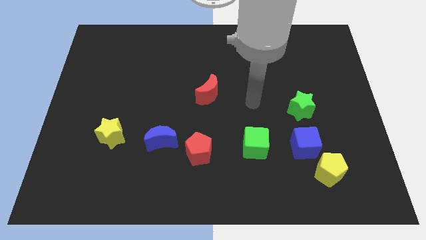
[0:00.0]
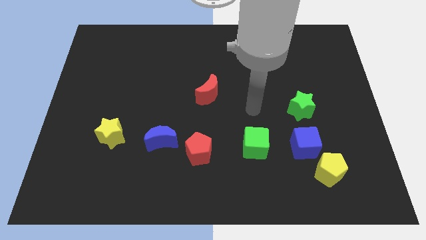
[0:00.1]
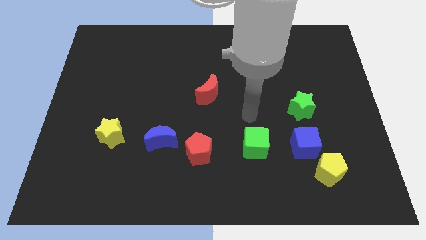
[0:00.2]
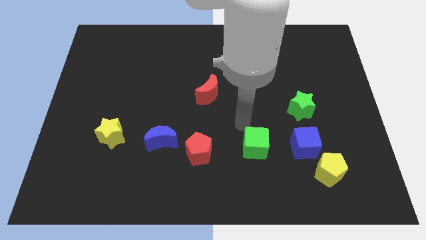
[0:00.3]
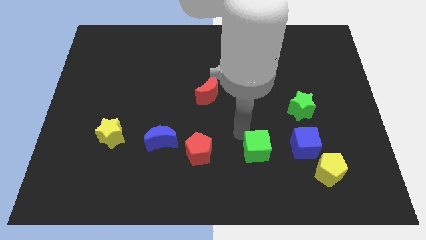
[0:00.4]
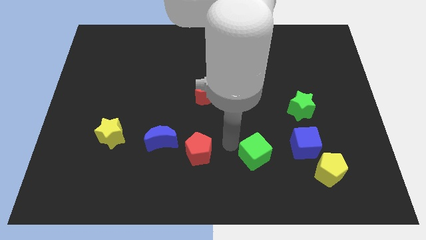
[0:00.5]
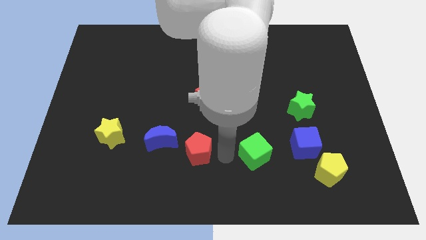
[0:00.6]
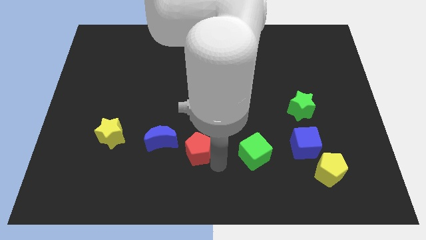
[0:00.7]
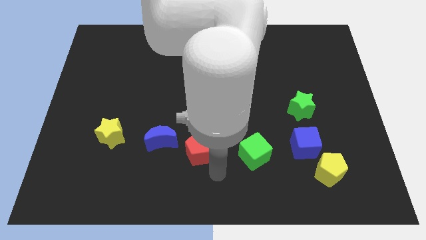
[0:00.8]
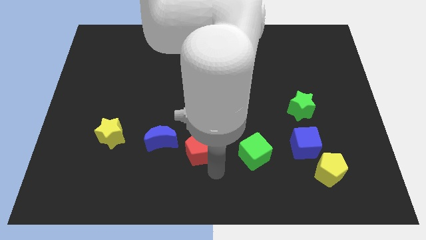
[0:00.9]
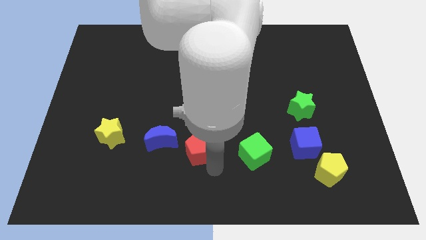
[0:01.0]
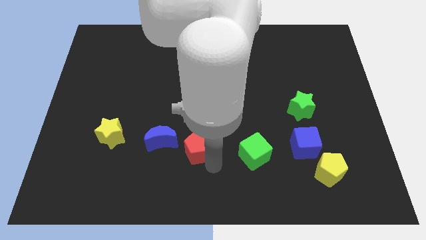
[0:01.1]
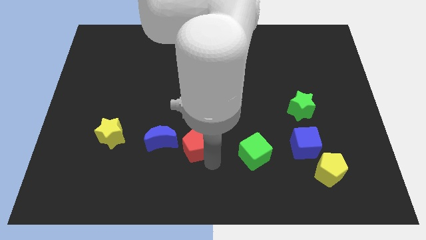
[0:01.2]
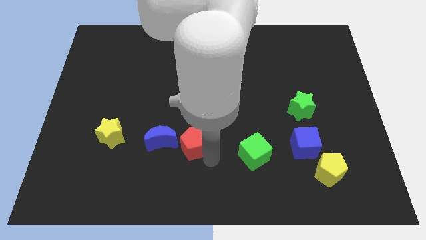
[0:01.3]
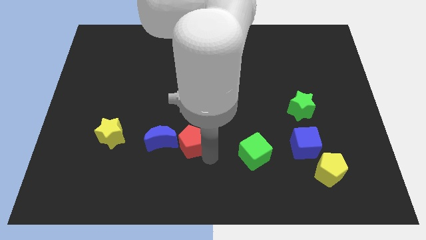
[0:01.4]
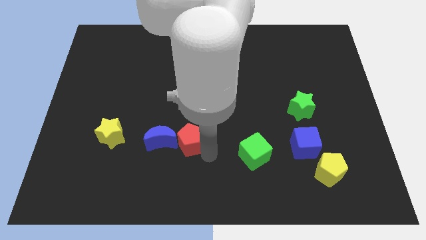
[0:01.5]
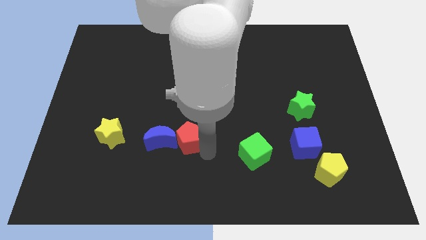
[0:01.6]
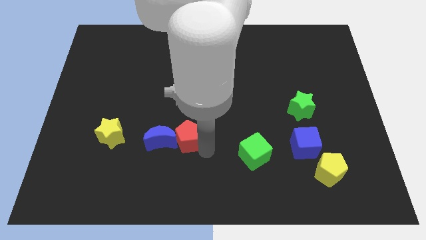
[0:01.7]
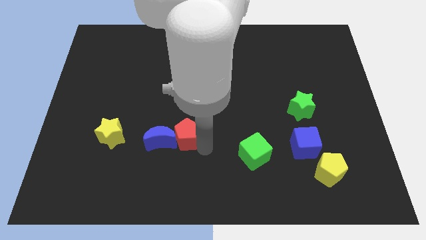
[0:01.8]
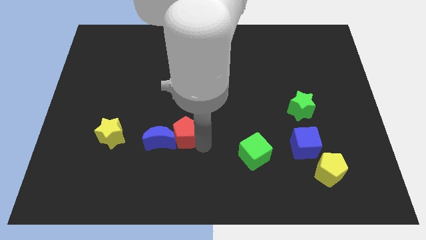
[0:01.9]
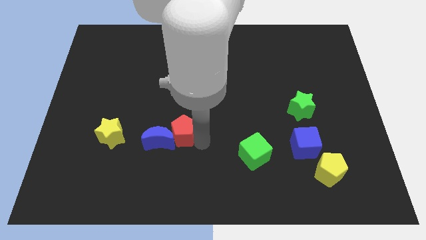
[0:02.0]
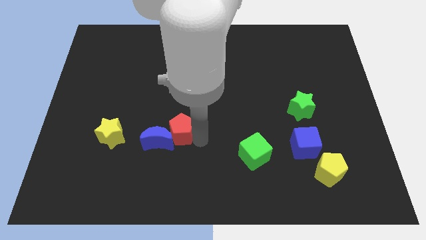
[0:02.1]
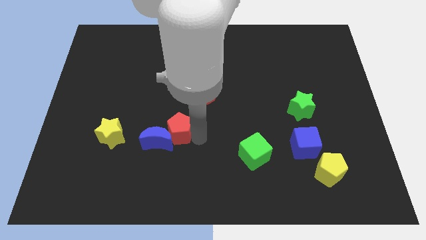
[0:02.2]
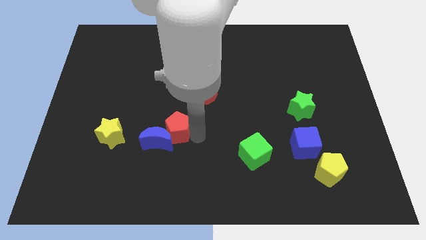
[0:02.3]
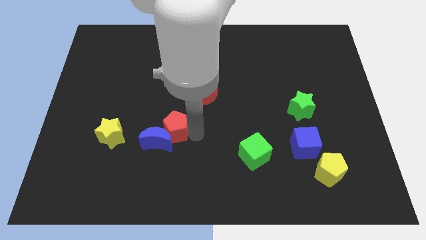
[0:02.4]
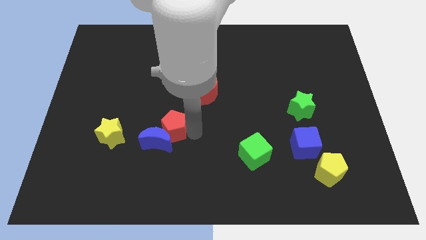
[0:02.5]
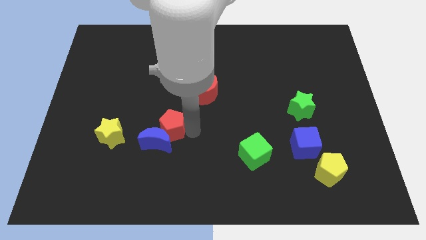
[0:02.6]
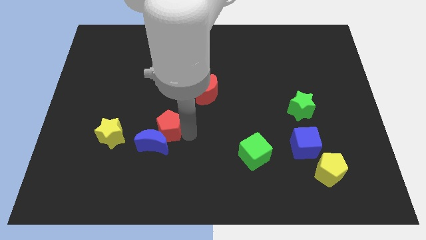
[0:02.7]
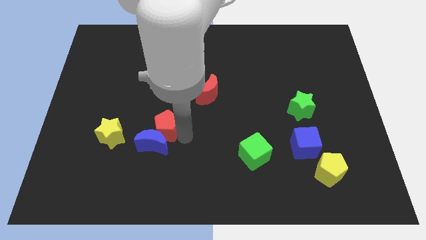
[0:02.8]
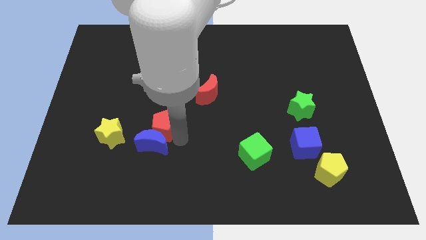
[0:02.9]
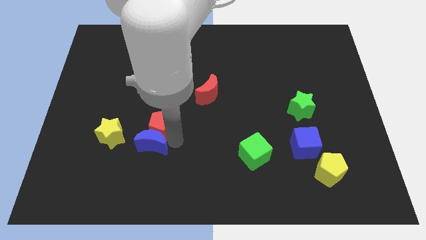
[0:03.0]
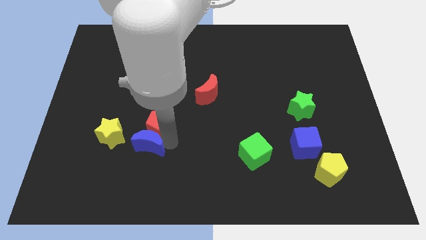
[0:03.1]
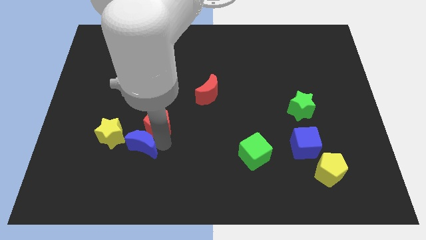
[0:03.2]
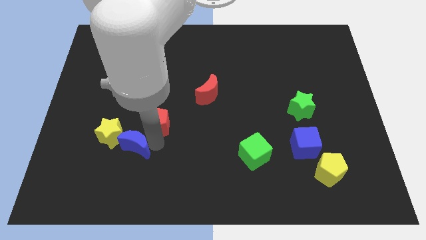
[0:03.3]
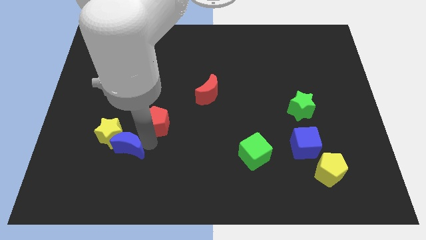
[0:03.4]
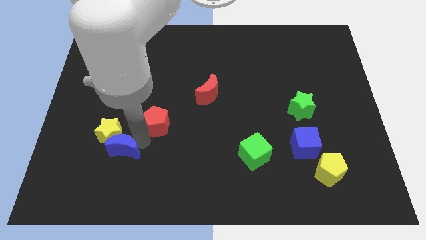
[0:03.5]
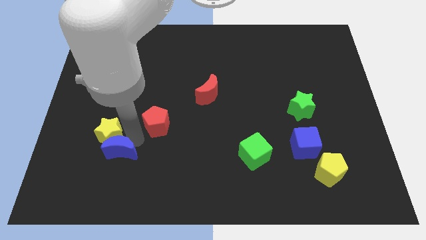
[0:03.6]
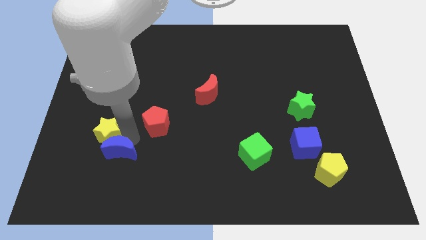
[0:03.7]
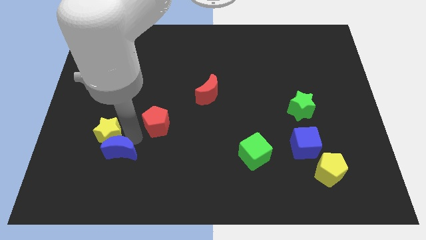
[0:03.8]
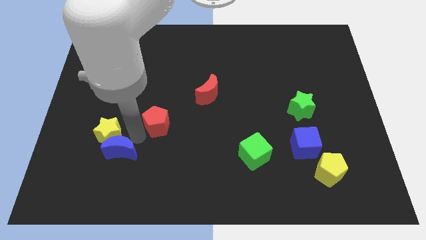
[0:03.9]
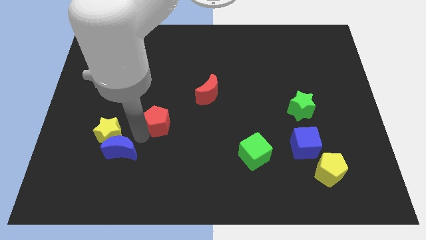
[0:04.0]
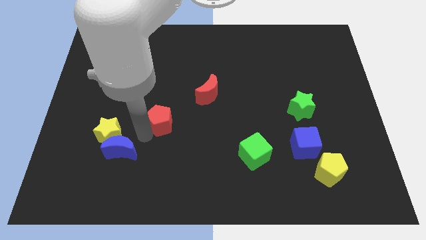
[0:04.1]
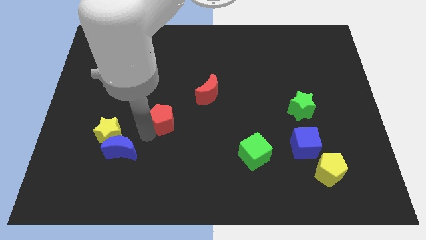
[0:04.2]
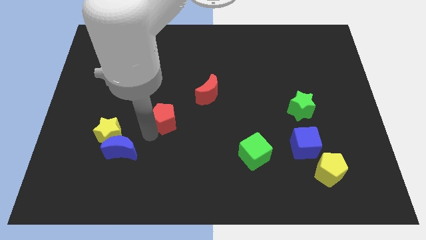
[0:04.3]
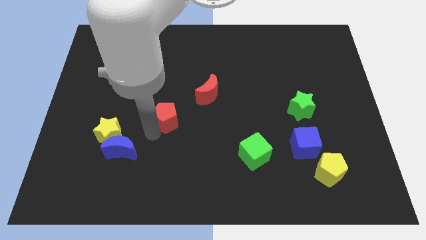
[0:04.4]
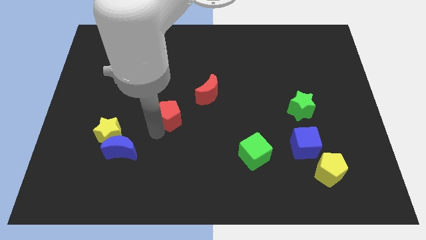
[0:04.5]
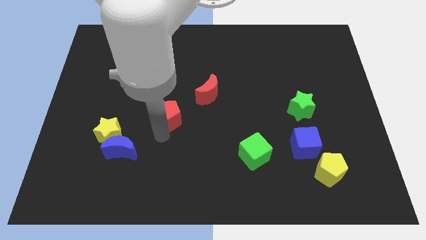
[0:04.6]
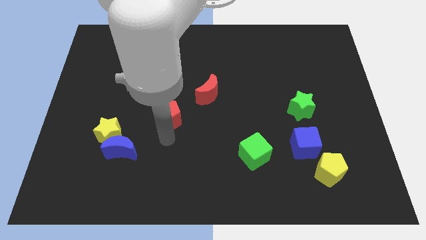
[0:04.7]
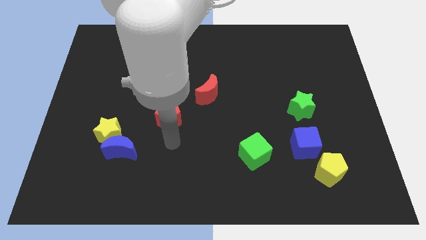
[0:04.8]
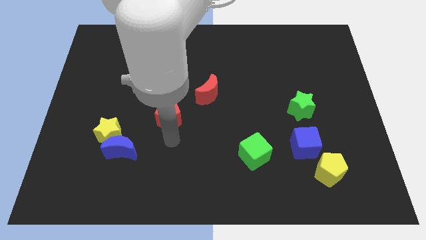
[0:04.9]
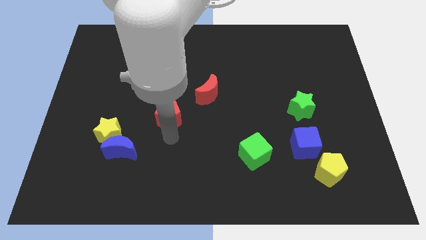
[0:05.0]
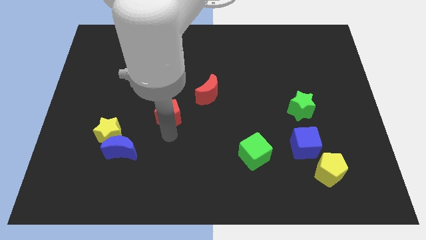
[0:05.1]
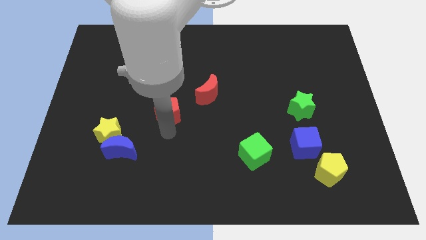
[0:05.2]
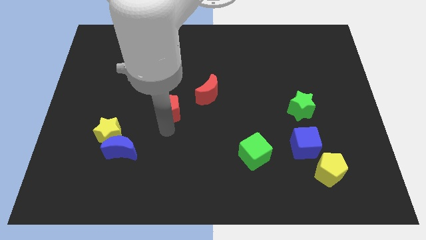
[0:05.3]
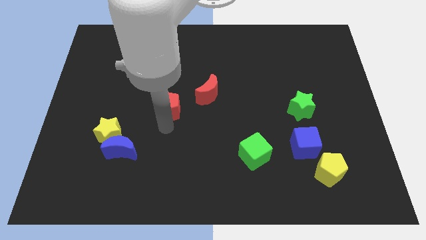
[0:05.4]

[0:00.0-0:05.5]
put the red pentagon left of the red moon

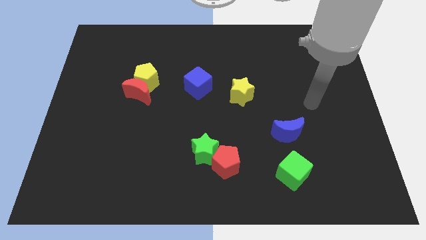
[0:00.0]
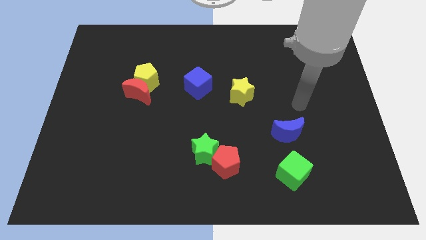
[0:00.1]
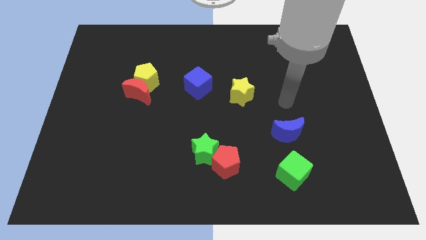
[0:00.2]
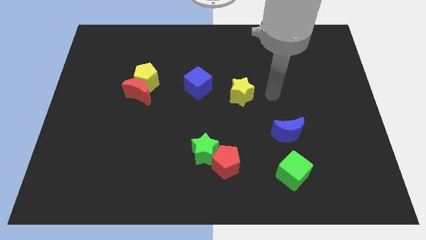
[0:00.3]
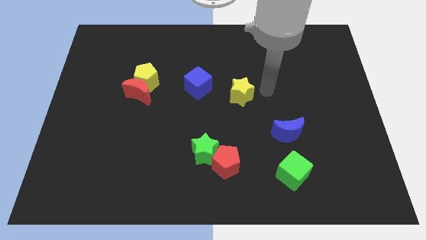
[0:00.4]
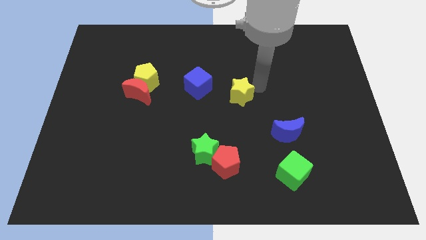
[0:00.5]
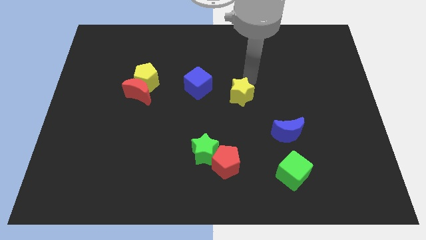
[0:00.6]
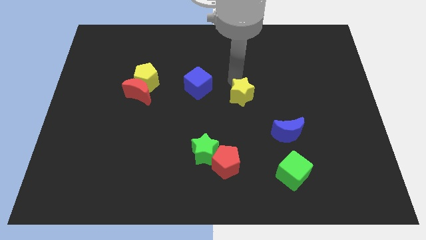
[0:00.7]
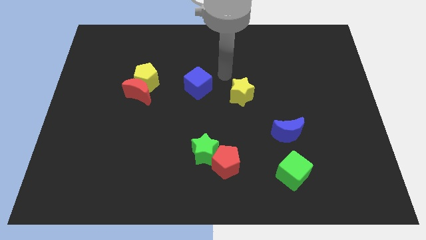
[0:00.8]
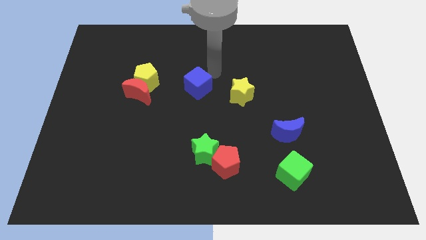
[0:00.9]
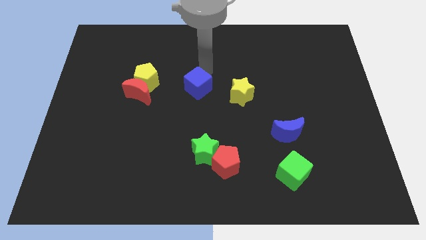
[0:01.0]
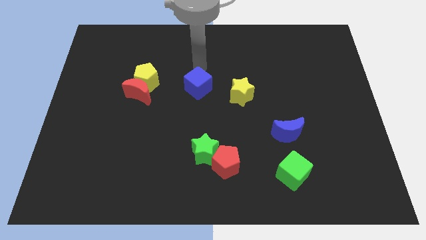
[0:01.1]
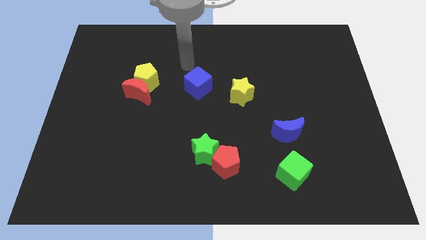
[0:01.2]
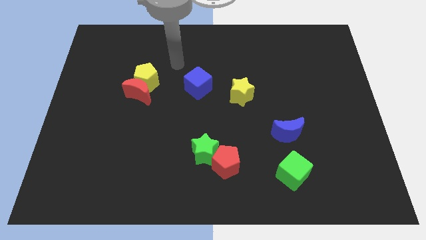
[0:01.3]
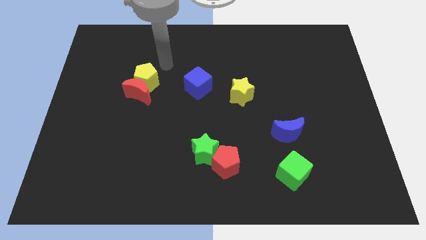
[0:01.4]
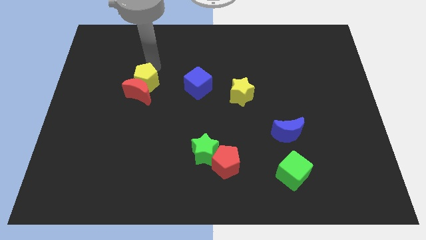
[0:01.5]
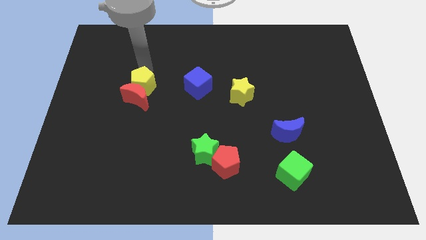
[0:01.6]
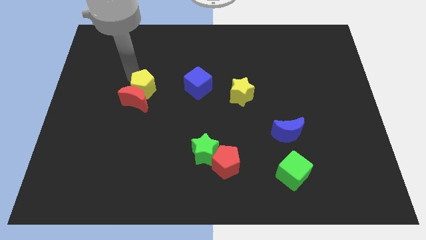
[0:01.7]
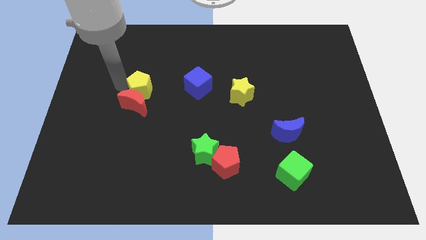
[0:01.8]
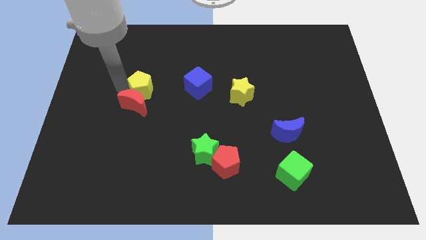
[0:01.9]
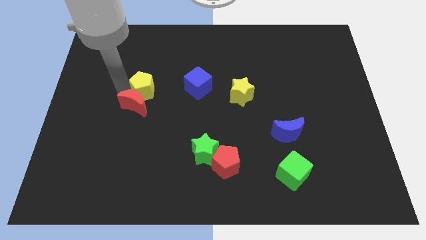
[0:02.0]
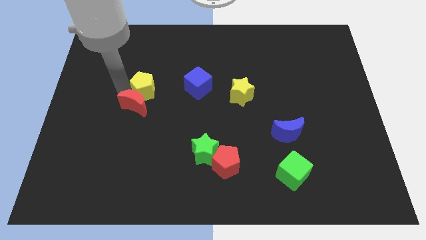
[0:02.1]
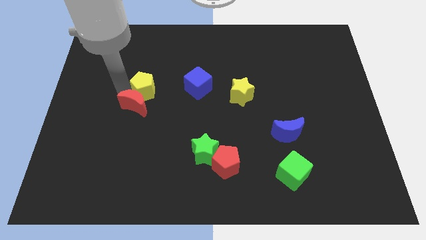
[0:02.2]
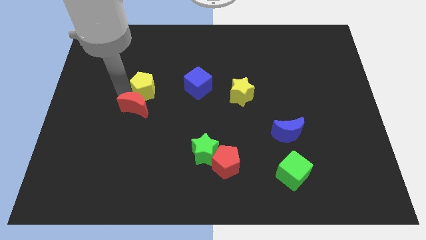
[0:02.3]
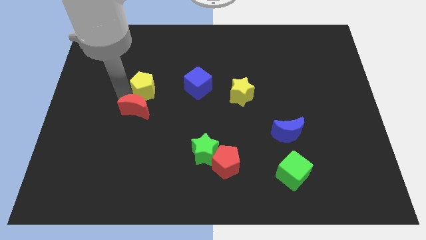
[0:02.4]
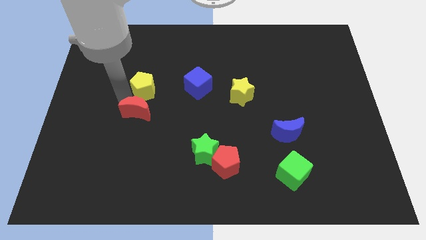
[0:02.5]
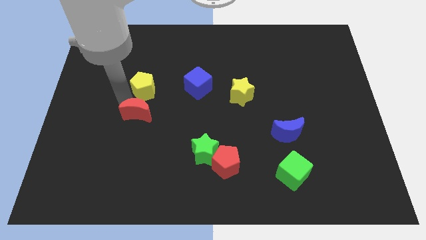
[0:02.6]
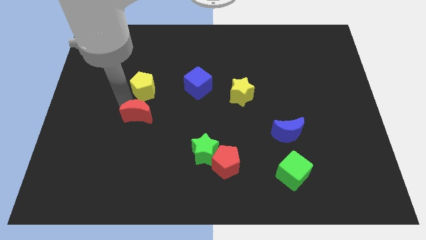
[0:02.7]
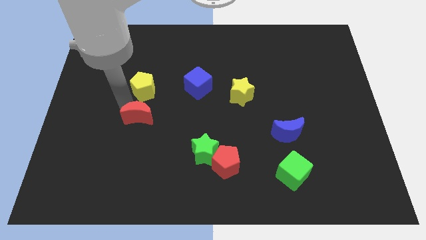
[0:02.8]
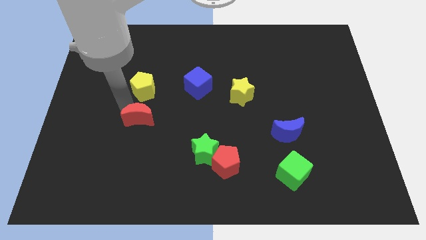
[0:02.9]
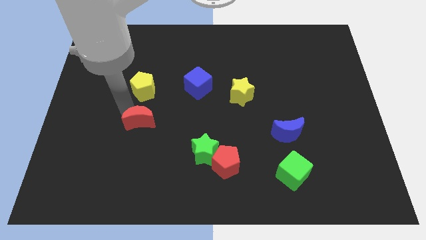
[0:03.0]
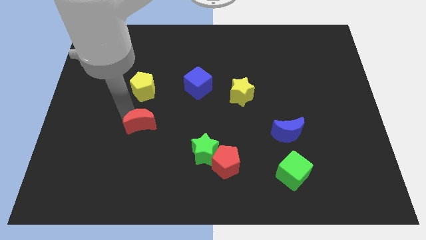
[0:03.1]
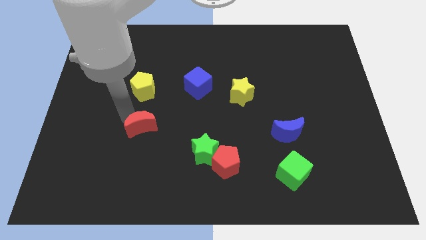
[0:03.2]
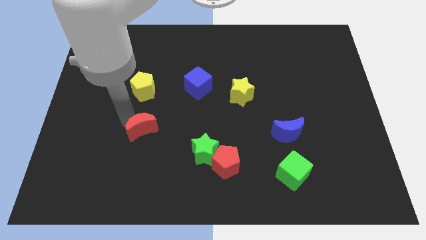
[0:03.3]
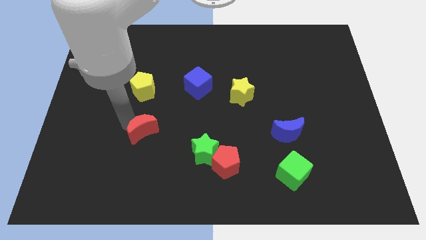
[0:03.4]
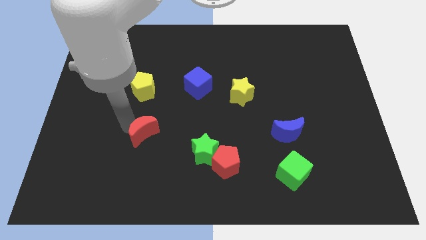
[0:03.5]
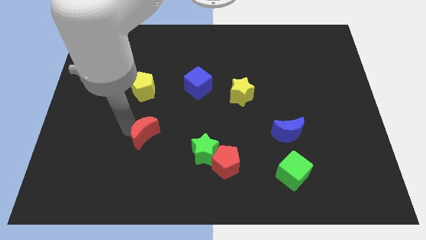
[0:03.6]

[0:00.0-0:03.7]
slide the red moon to the left of the green star
